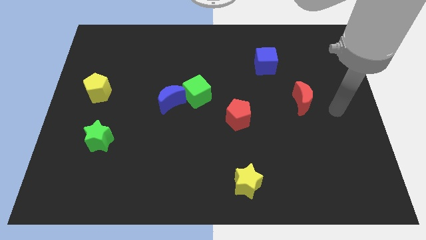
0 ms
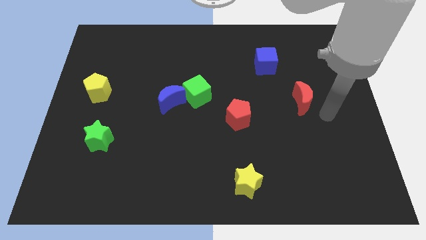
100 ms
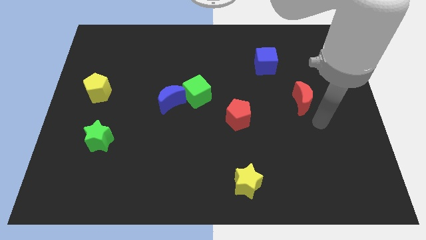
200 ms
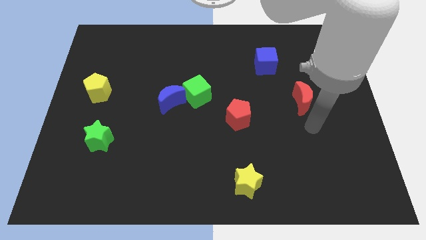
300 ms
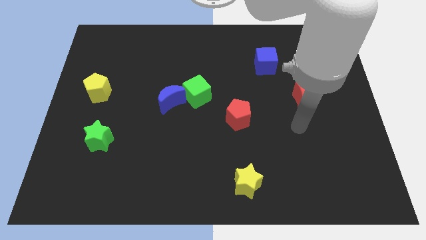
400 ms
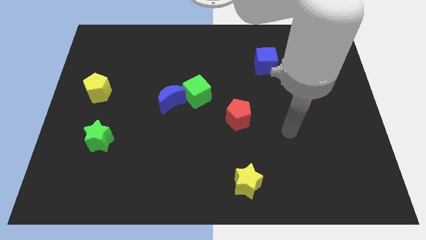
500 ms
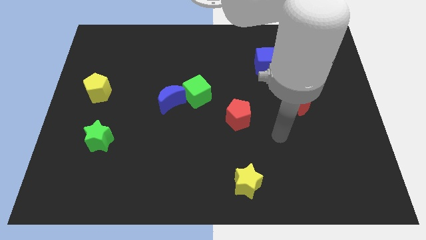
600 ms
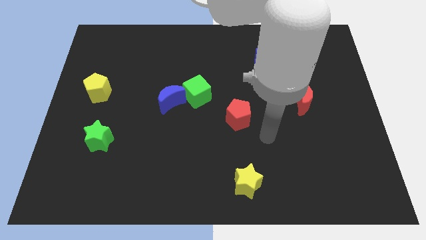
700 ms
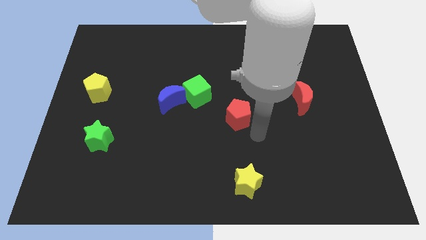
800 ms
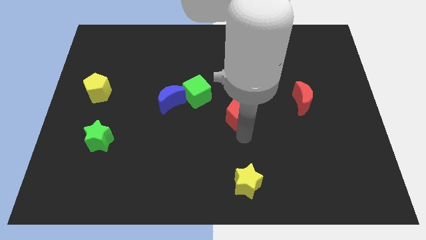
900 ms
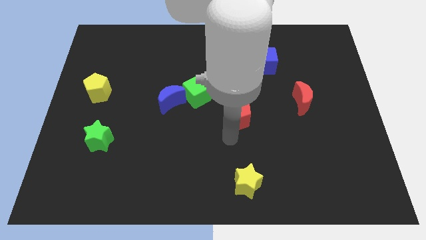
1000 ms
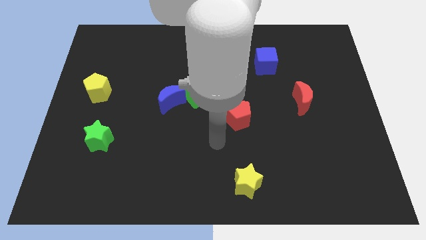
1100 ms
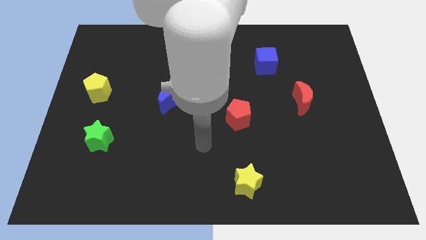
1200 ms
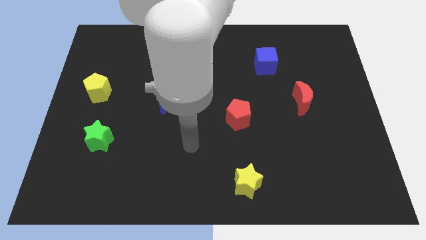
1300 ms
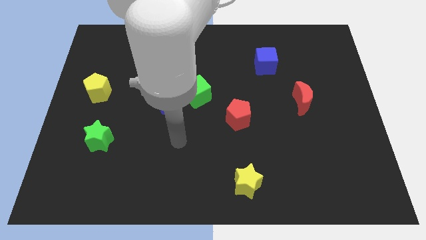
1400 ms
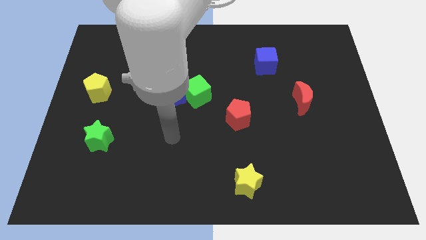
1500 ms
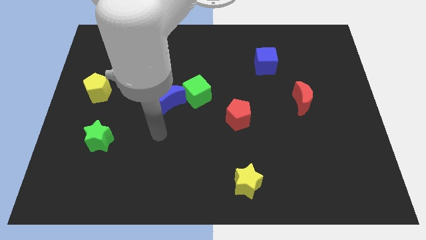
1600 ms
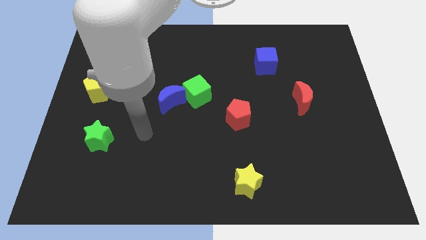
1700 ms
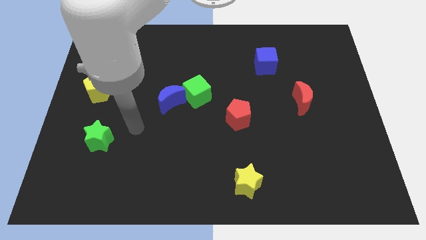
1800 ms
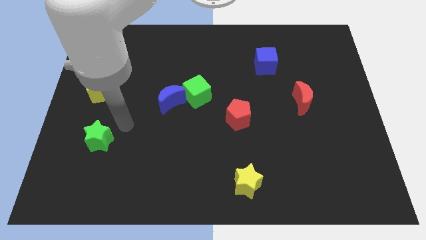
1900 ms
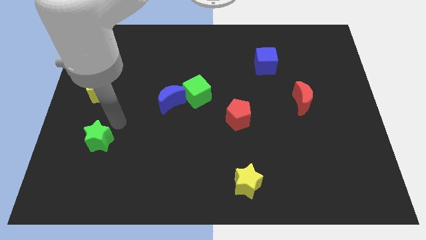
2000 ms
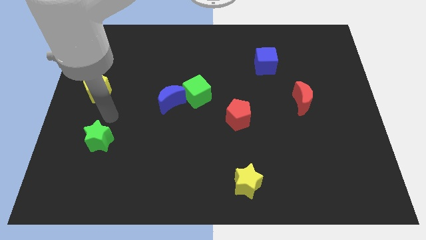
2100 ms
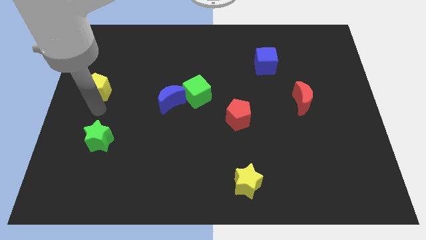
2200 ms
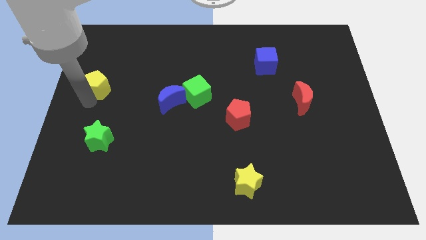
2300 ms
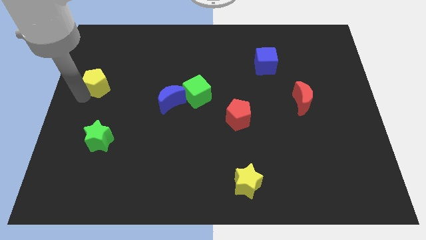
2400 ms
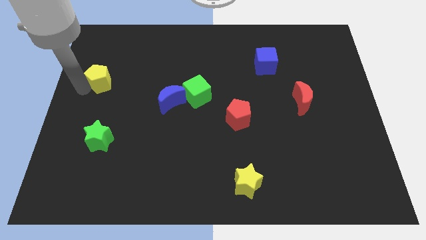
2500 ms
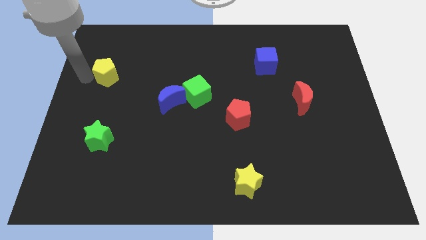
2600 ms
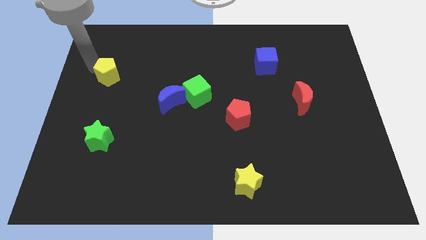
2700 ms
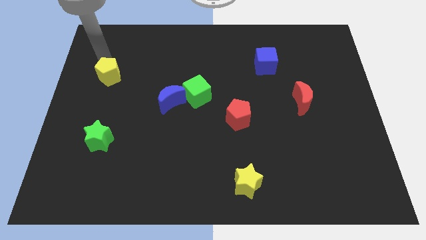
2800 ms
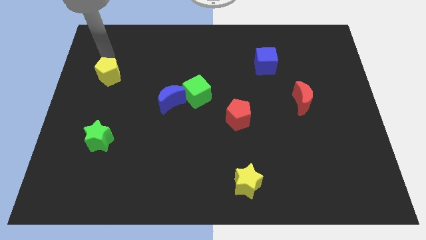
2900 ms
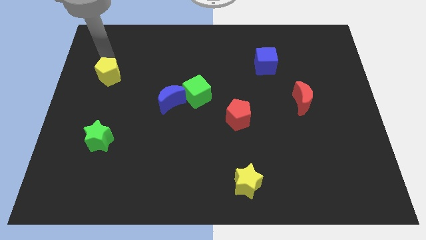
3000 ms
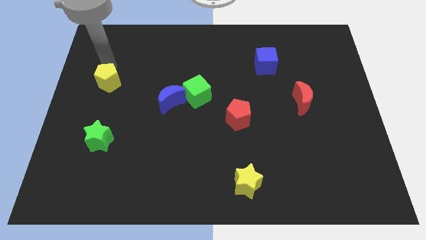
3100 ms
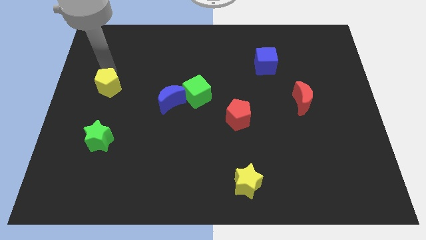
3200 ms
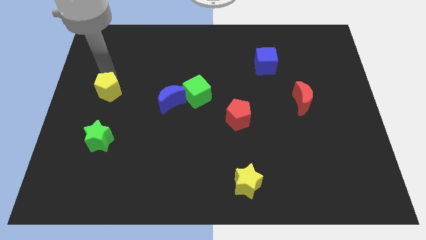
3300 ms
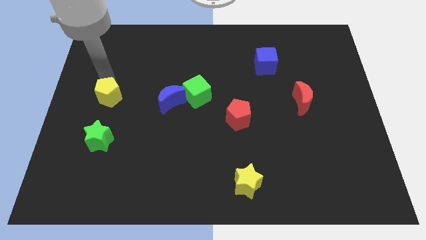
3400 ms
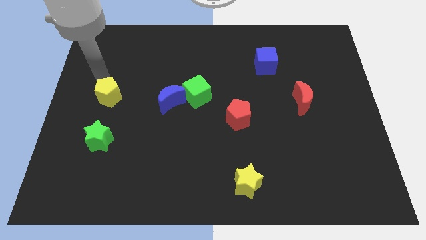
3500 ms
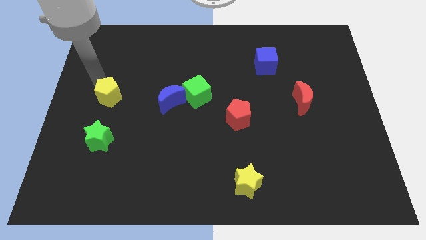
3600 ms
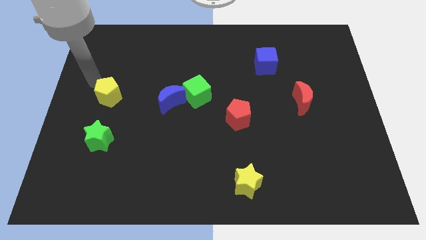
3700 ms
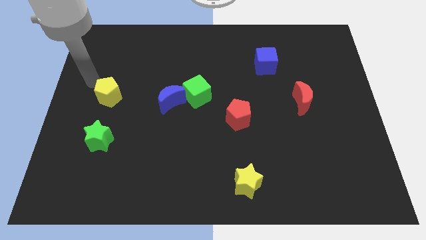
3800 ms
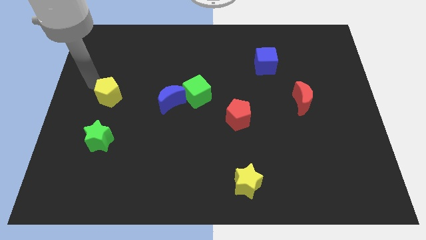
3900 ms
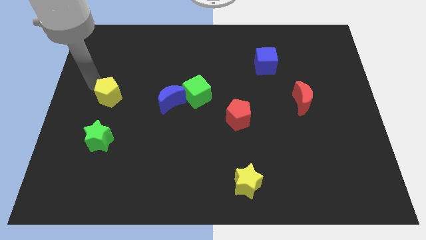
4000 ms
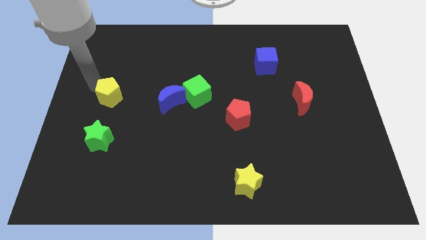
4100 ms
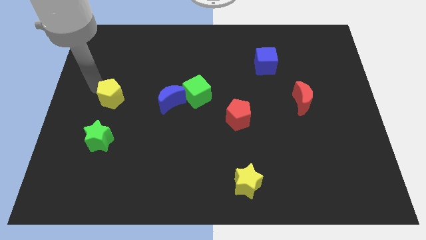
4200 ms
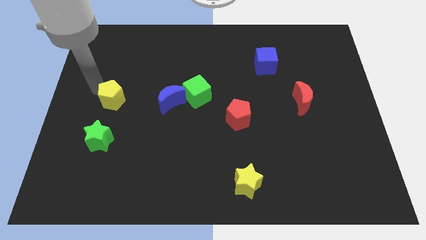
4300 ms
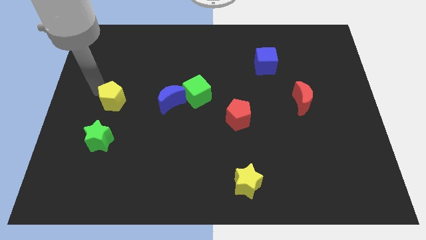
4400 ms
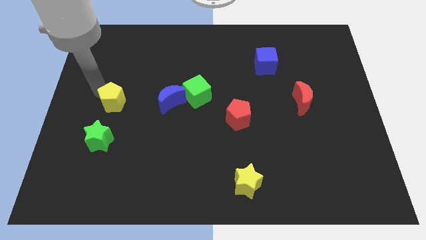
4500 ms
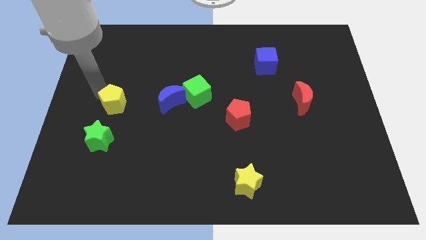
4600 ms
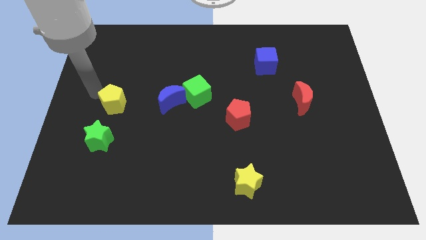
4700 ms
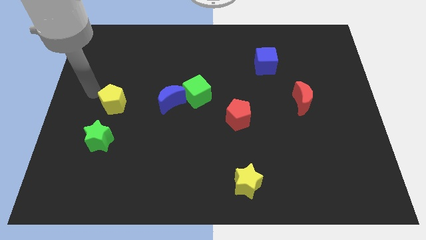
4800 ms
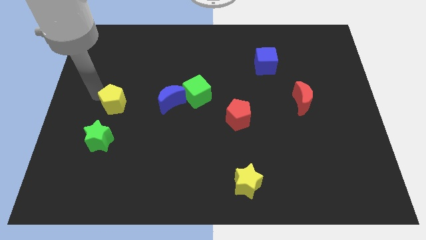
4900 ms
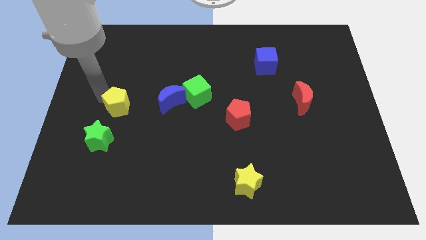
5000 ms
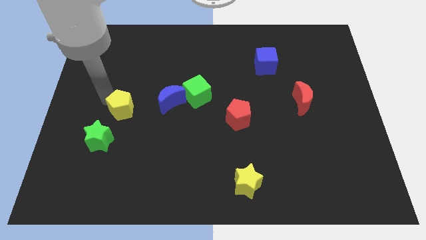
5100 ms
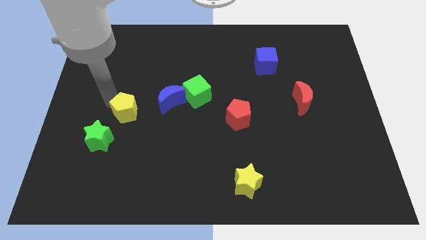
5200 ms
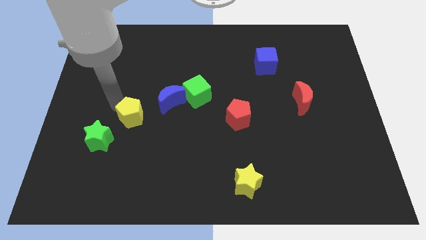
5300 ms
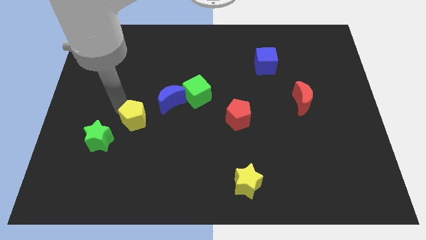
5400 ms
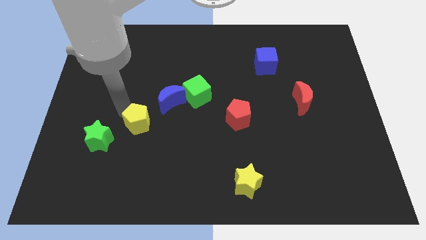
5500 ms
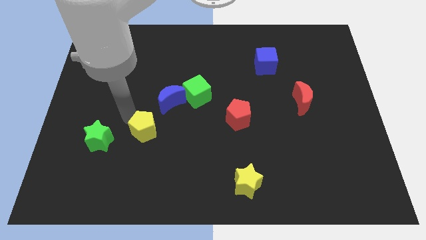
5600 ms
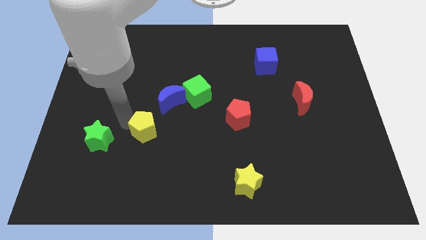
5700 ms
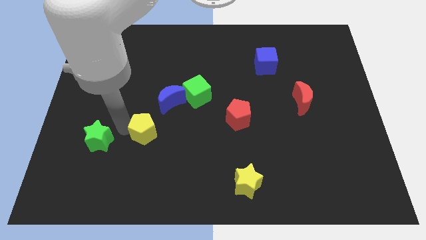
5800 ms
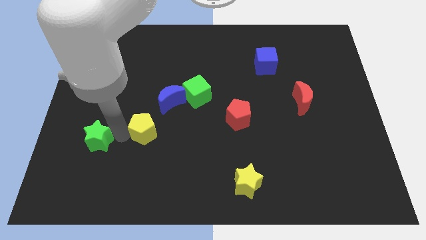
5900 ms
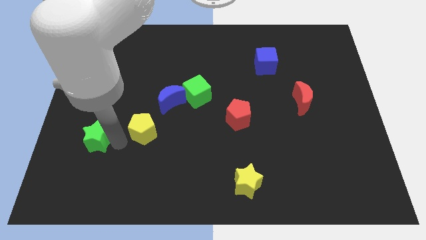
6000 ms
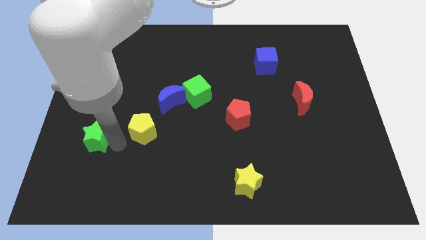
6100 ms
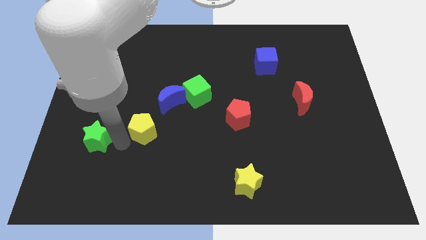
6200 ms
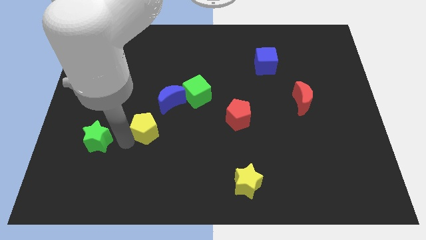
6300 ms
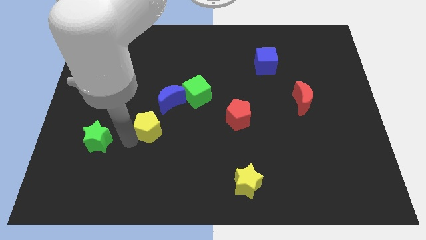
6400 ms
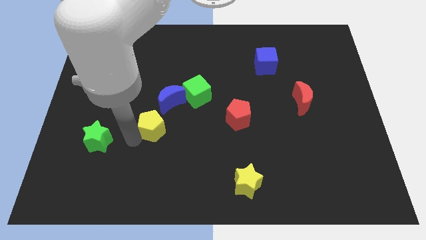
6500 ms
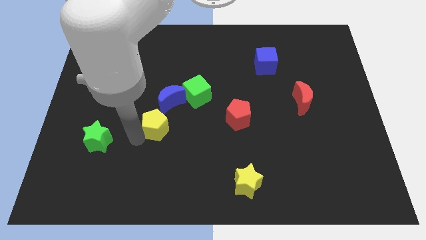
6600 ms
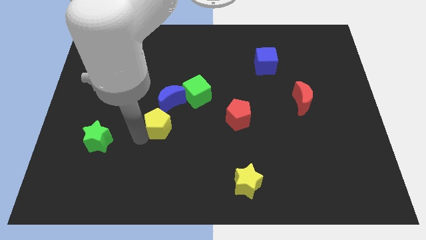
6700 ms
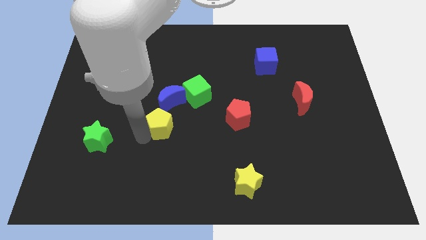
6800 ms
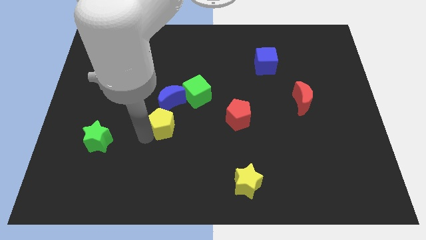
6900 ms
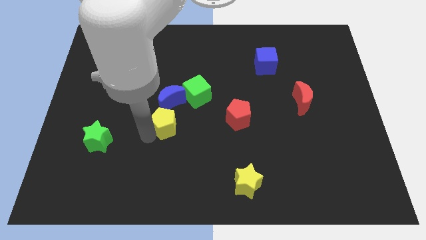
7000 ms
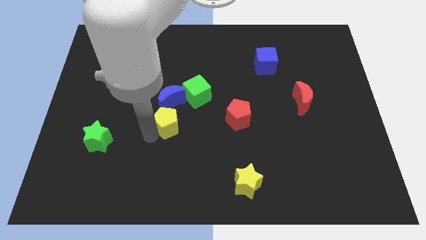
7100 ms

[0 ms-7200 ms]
put the yellow pentagon to the middle of the board

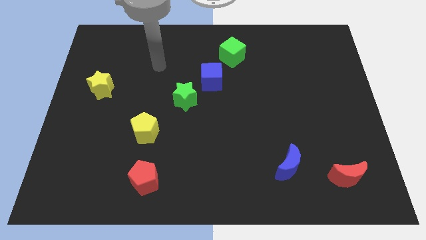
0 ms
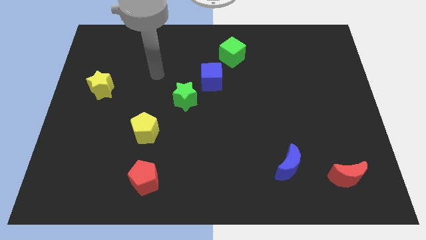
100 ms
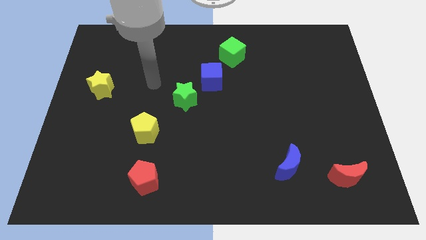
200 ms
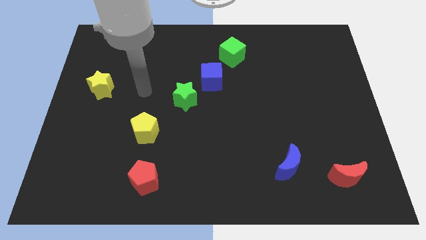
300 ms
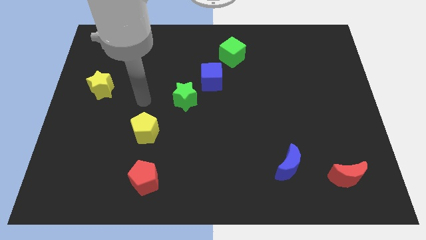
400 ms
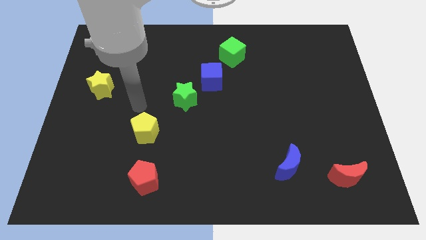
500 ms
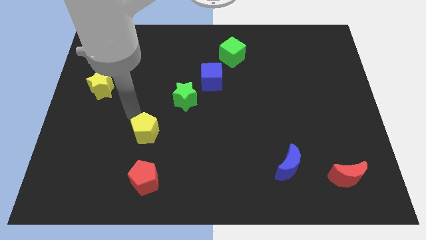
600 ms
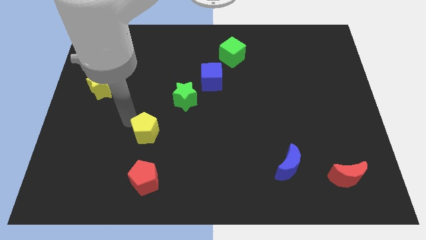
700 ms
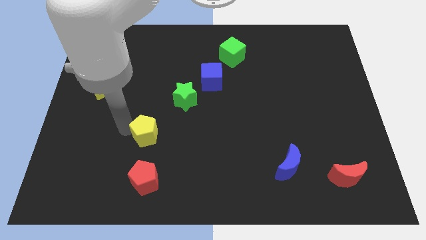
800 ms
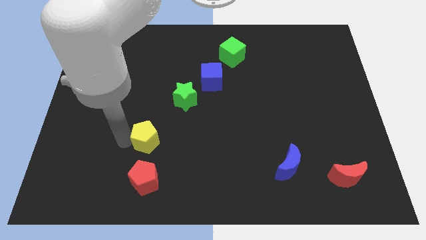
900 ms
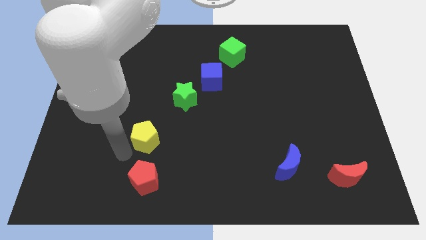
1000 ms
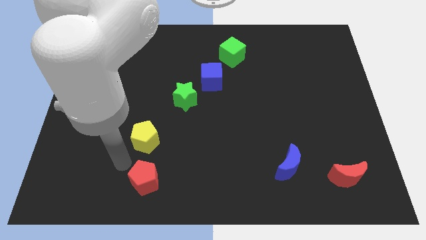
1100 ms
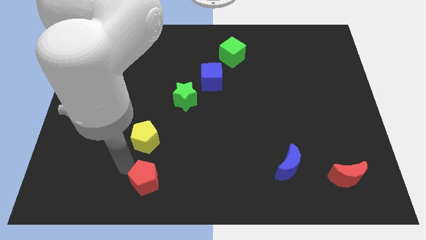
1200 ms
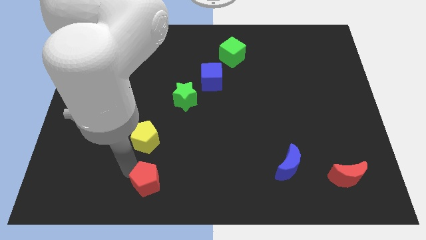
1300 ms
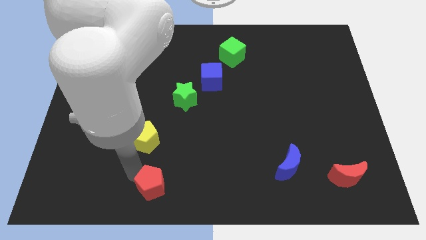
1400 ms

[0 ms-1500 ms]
move the red pentagon to the bottom
